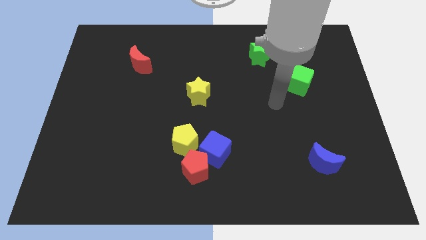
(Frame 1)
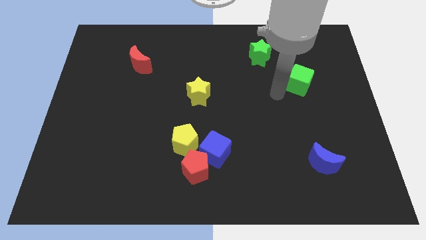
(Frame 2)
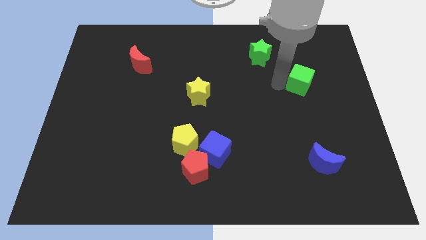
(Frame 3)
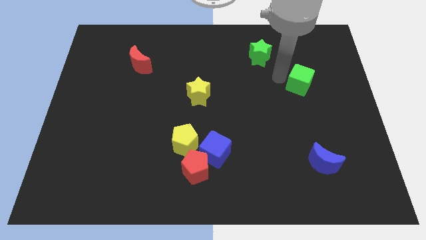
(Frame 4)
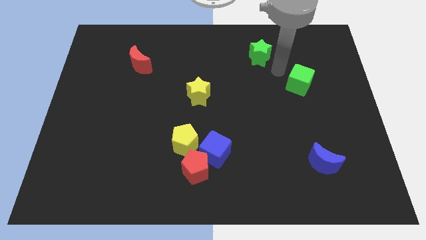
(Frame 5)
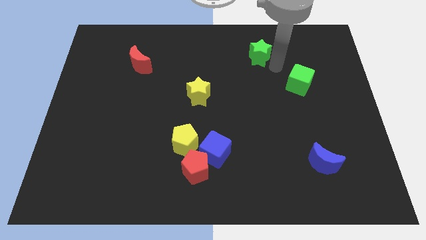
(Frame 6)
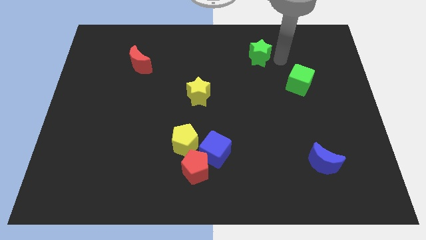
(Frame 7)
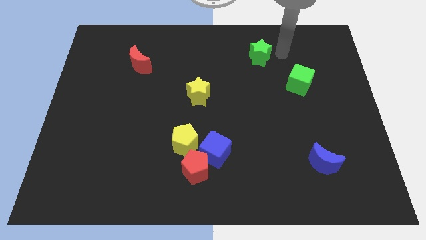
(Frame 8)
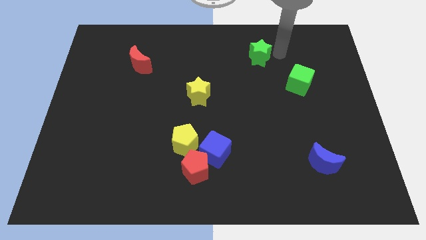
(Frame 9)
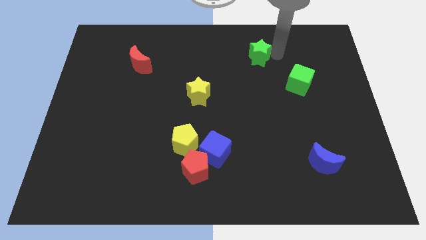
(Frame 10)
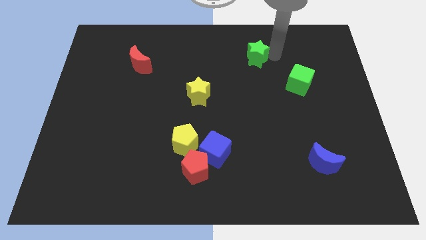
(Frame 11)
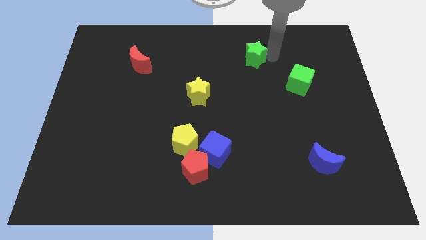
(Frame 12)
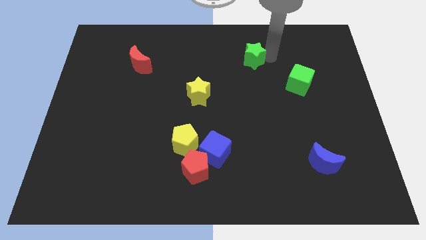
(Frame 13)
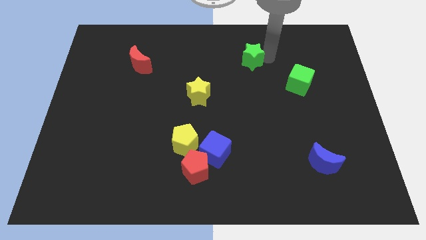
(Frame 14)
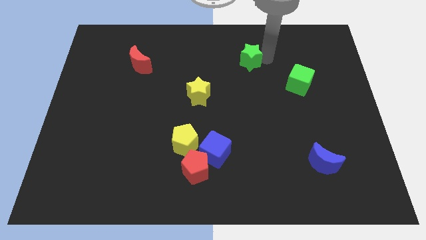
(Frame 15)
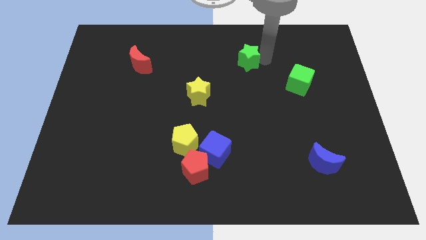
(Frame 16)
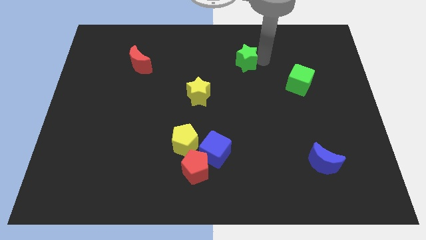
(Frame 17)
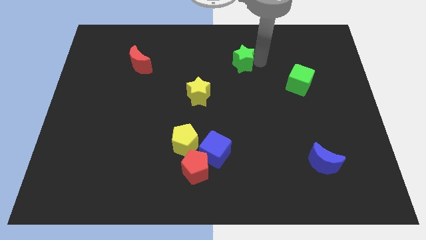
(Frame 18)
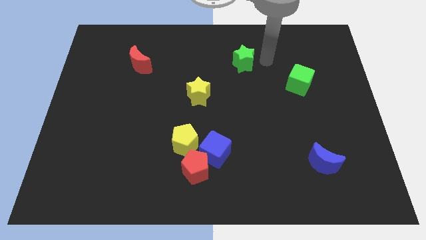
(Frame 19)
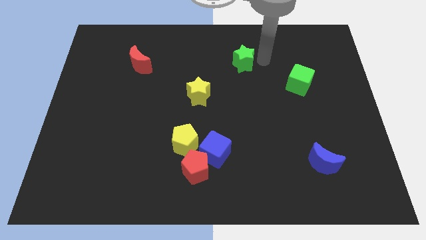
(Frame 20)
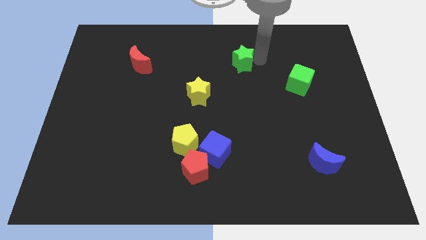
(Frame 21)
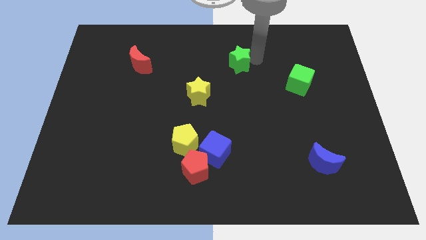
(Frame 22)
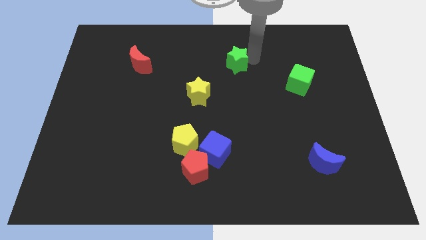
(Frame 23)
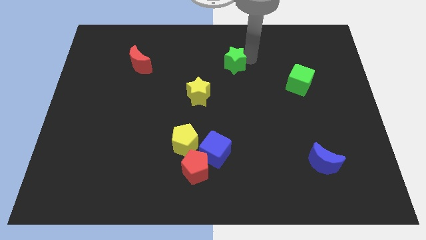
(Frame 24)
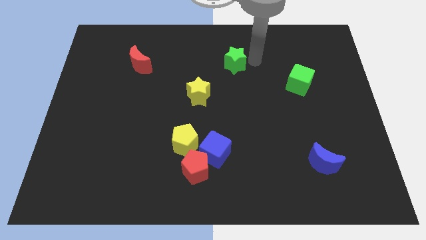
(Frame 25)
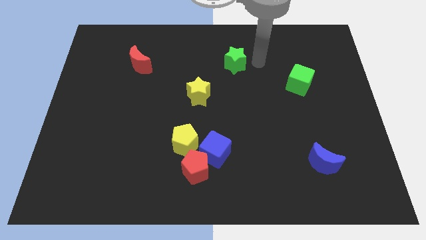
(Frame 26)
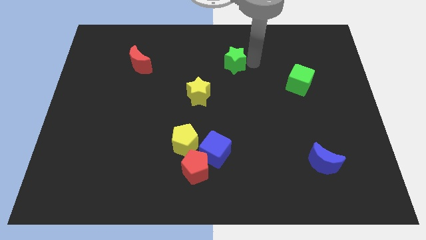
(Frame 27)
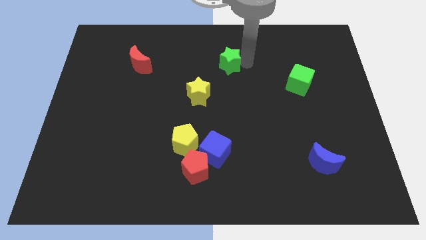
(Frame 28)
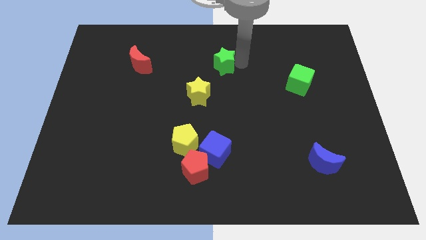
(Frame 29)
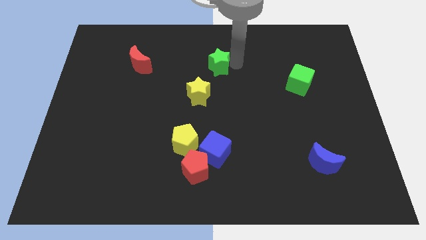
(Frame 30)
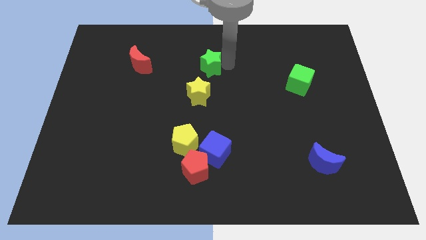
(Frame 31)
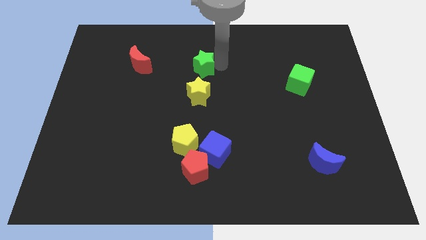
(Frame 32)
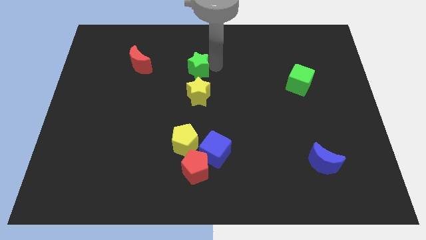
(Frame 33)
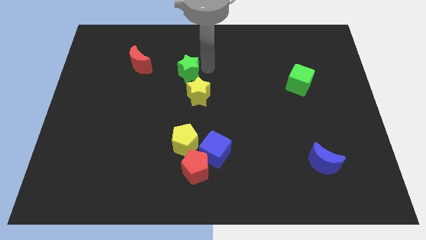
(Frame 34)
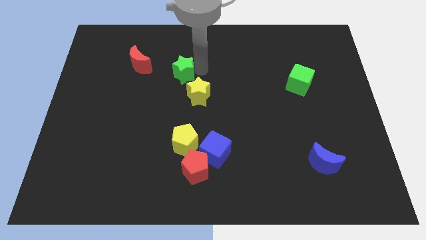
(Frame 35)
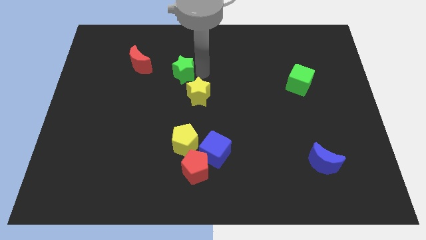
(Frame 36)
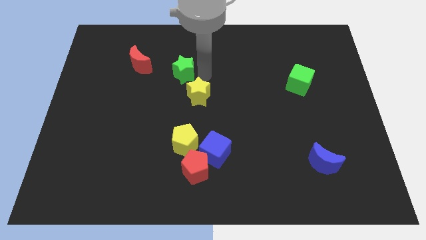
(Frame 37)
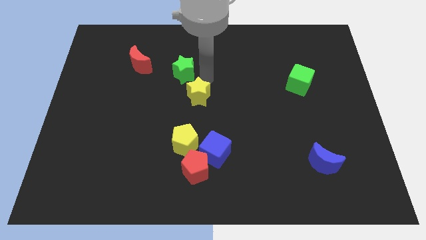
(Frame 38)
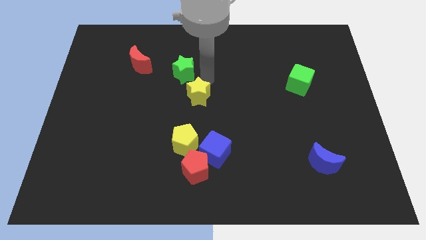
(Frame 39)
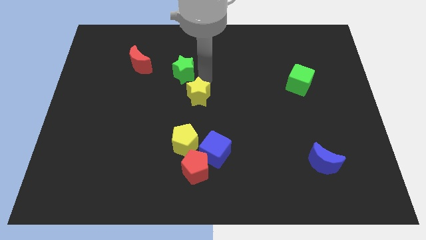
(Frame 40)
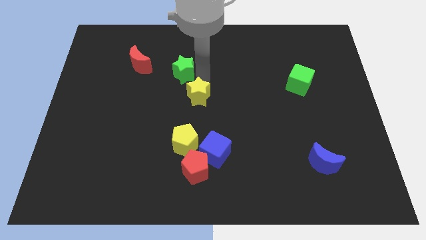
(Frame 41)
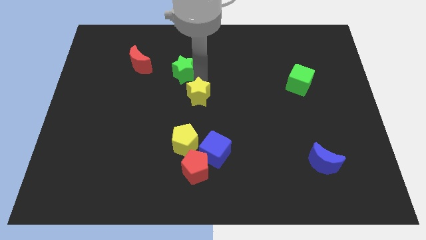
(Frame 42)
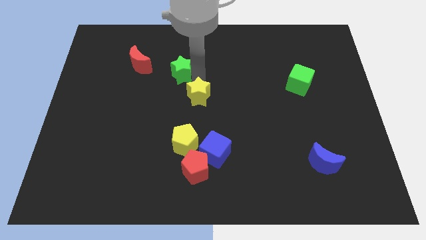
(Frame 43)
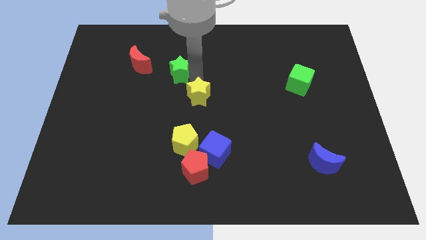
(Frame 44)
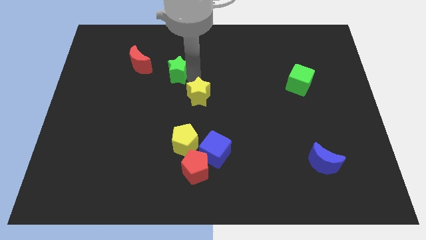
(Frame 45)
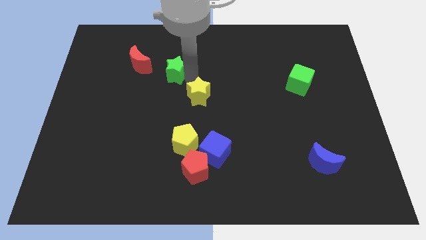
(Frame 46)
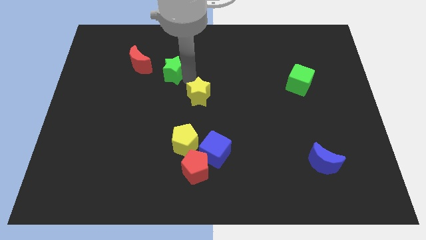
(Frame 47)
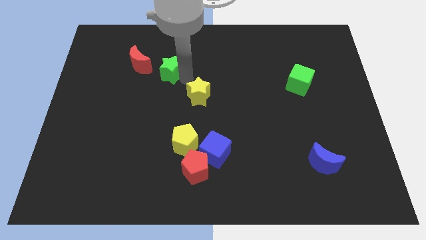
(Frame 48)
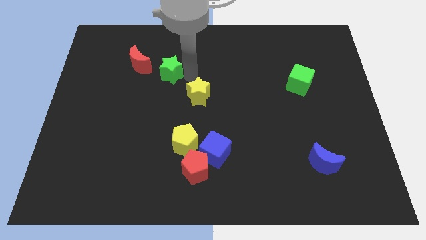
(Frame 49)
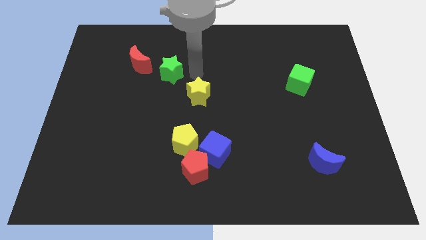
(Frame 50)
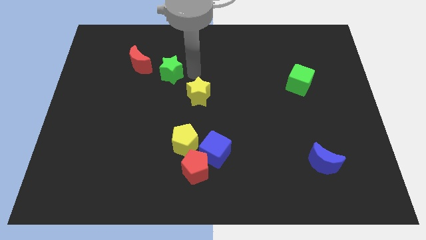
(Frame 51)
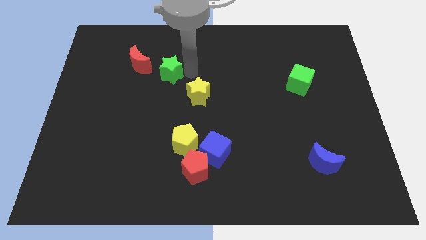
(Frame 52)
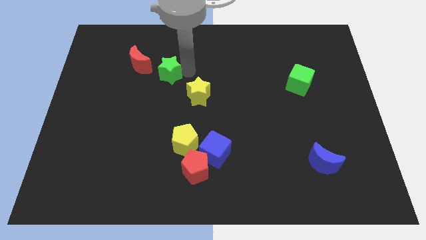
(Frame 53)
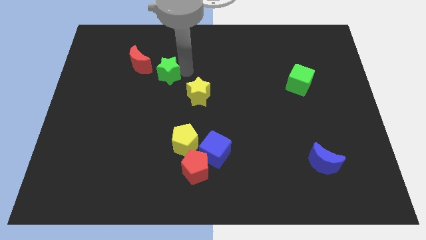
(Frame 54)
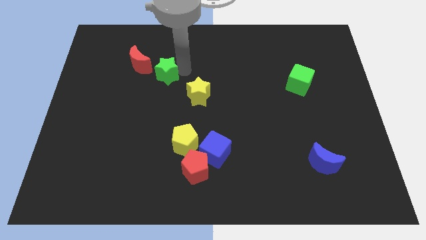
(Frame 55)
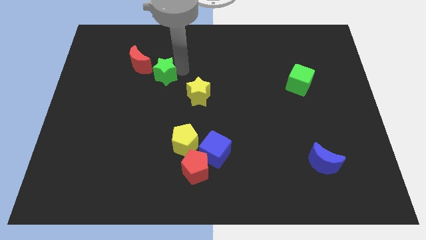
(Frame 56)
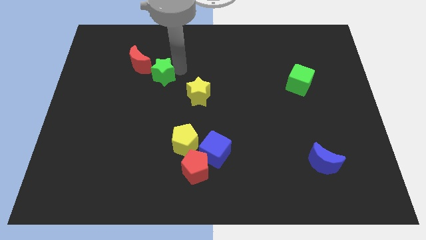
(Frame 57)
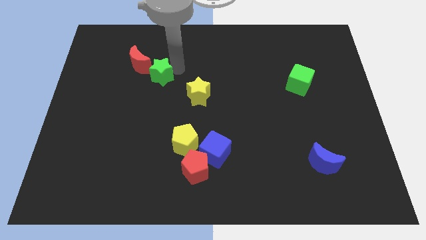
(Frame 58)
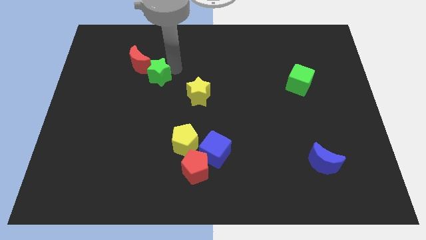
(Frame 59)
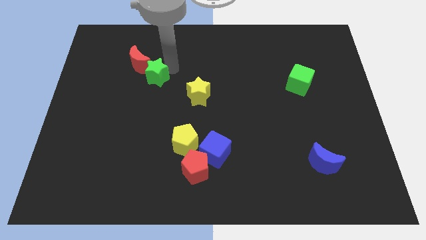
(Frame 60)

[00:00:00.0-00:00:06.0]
put the green star to the red moon

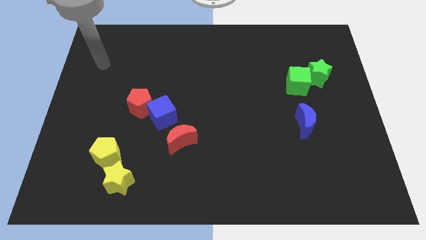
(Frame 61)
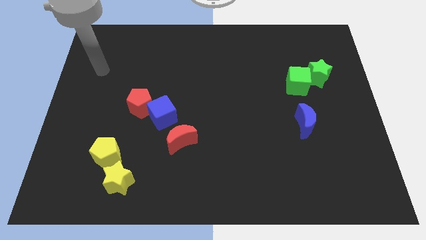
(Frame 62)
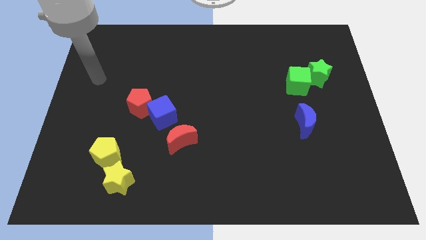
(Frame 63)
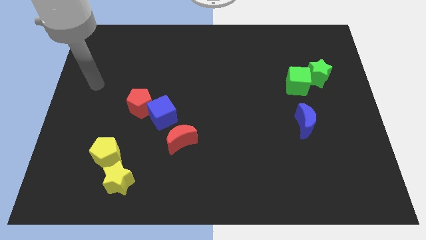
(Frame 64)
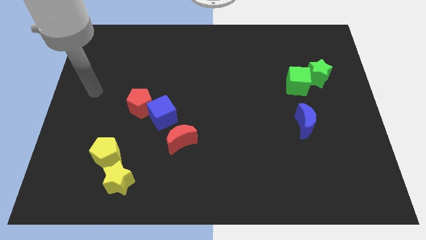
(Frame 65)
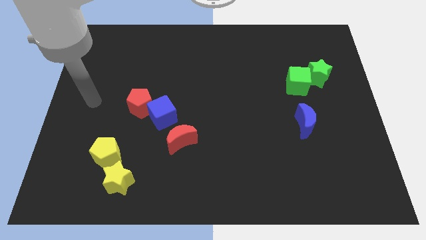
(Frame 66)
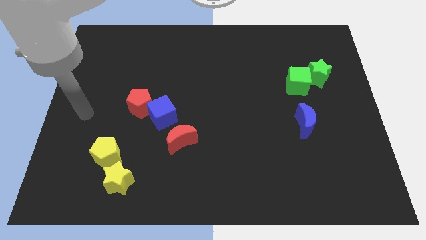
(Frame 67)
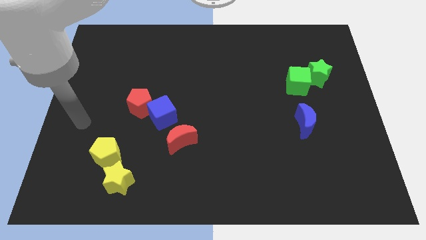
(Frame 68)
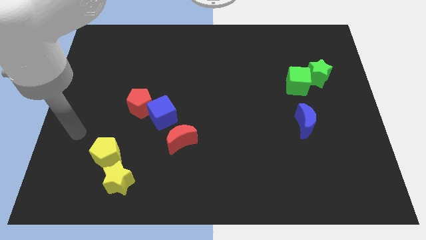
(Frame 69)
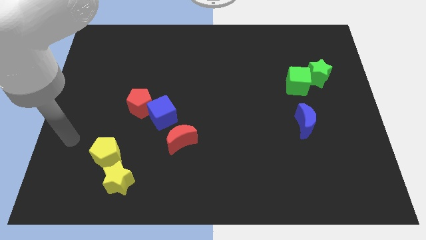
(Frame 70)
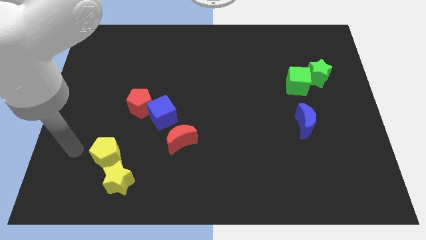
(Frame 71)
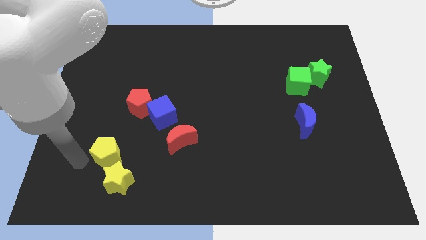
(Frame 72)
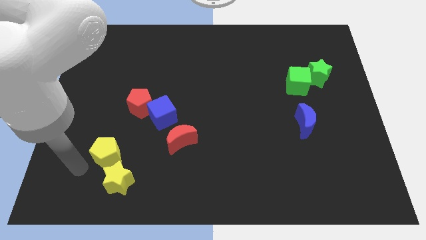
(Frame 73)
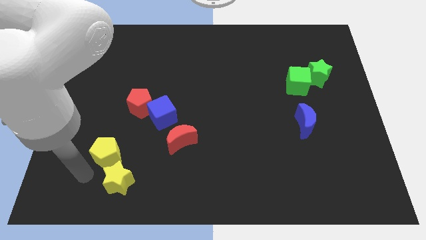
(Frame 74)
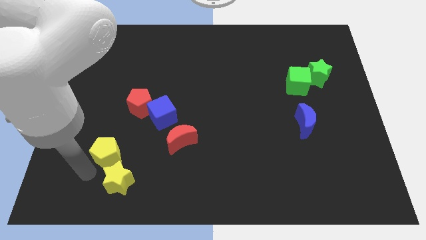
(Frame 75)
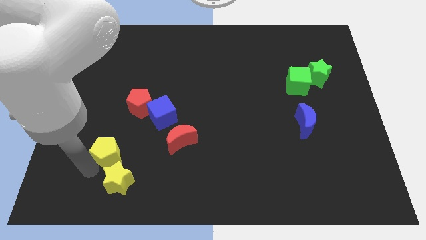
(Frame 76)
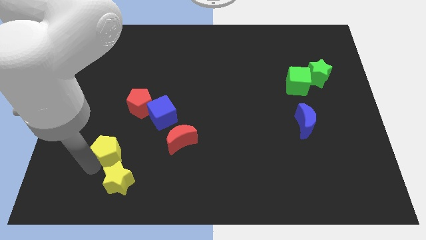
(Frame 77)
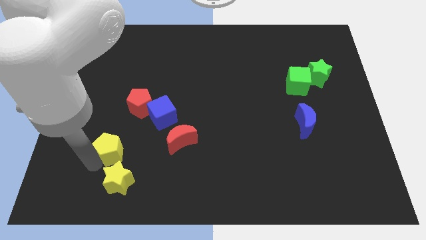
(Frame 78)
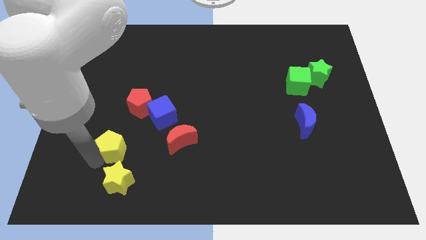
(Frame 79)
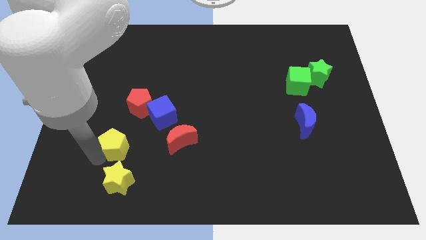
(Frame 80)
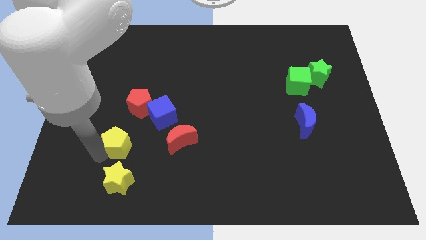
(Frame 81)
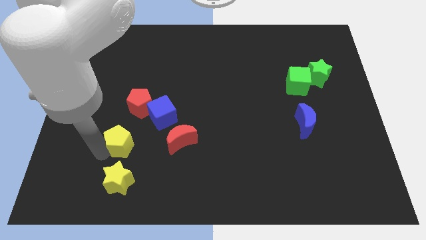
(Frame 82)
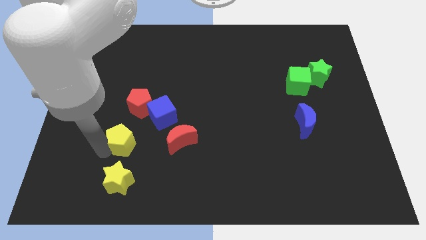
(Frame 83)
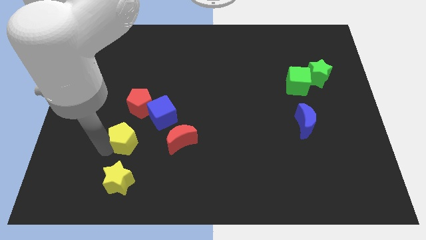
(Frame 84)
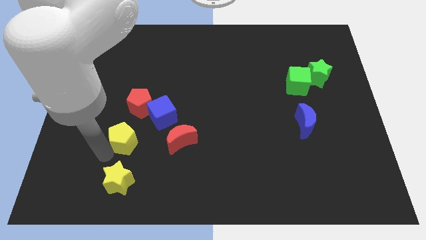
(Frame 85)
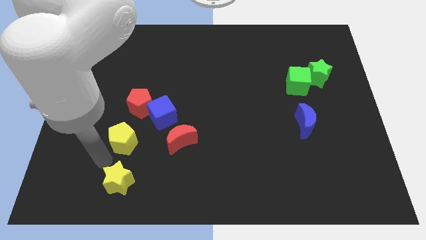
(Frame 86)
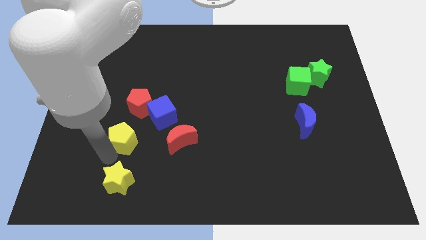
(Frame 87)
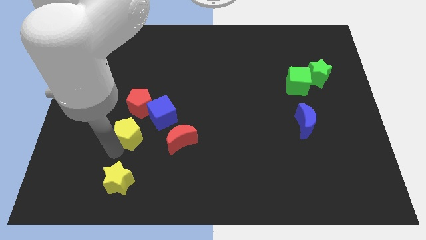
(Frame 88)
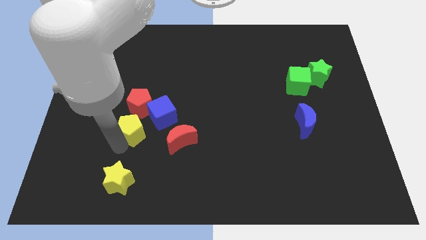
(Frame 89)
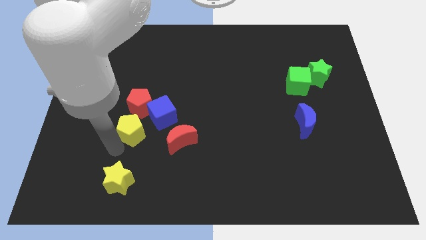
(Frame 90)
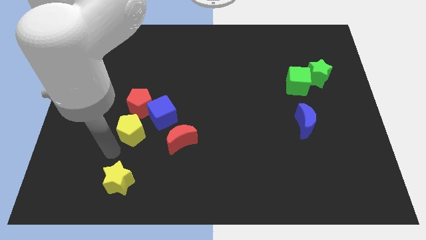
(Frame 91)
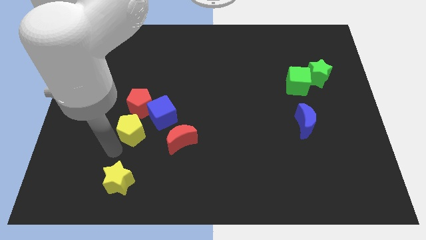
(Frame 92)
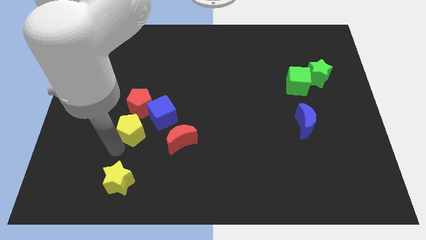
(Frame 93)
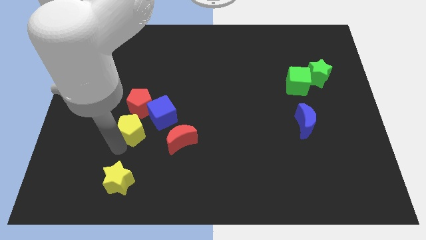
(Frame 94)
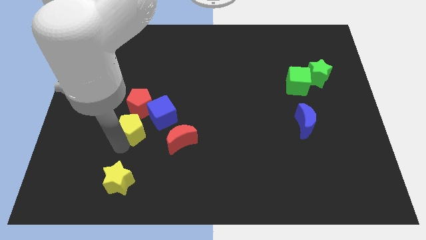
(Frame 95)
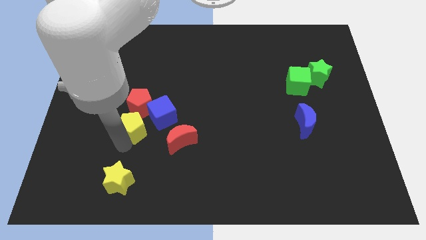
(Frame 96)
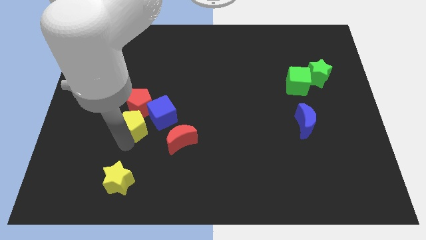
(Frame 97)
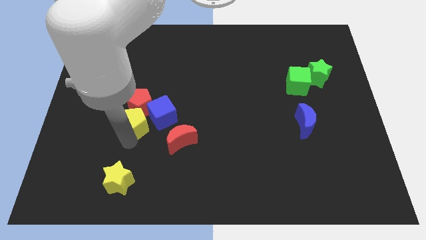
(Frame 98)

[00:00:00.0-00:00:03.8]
slide the yellow pentagon close to the blue cube
